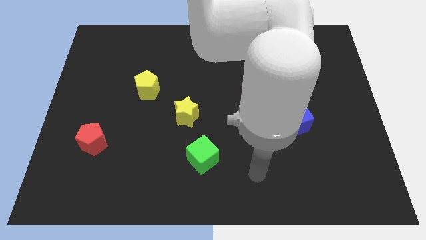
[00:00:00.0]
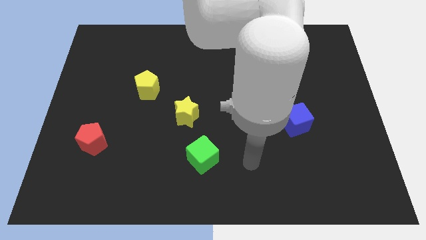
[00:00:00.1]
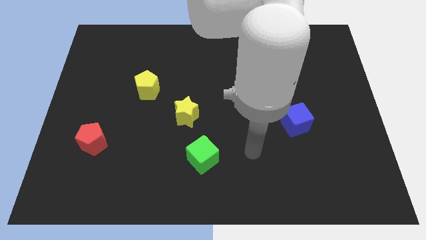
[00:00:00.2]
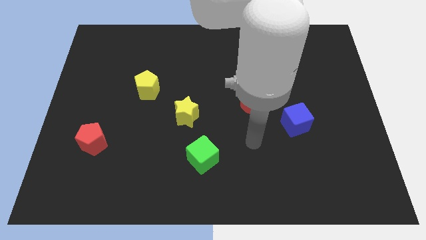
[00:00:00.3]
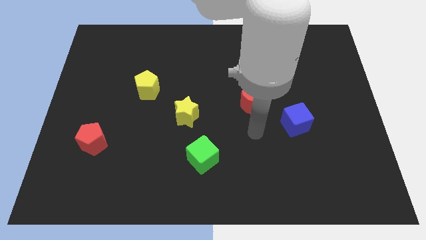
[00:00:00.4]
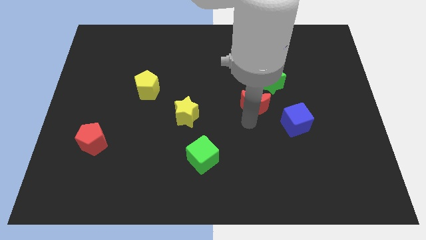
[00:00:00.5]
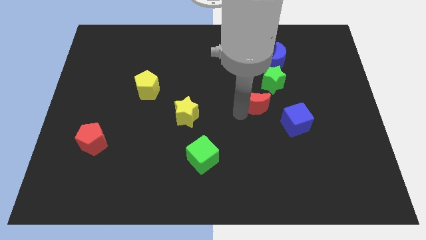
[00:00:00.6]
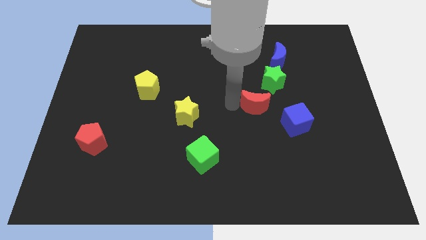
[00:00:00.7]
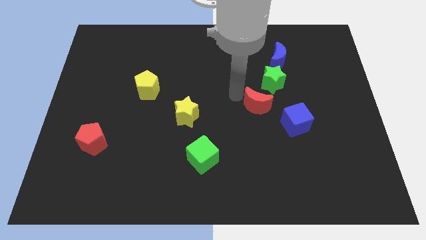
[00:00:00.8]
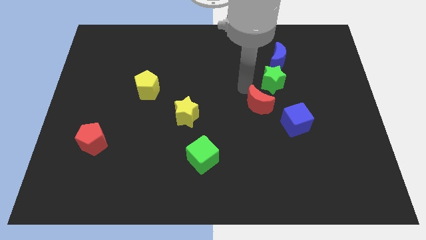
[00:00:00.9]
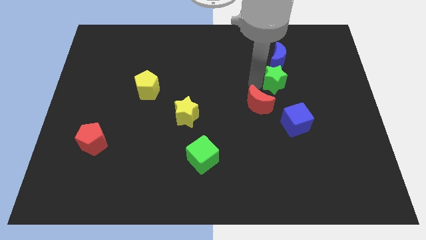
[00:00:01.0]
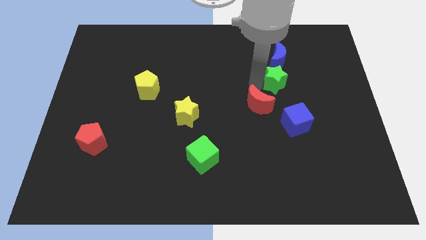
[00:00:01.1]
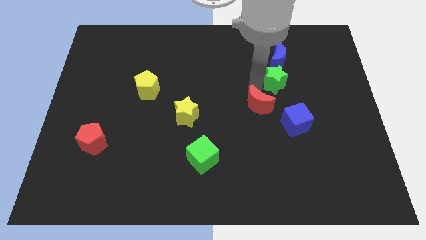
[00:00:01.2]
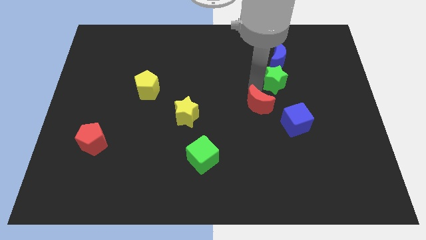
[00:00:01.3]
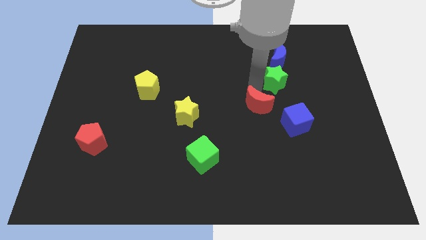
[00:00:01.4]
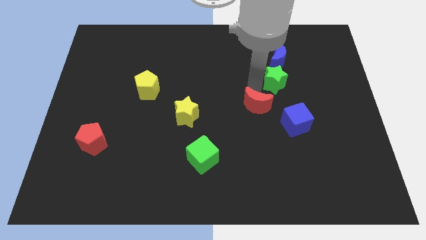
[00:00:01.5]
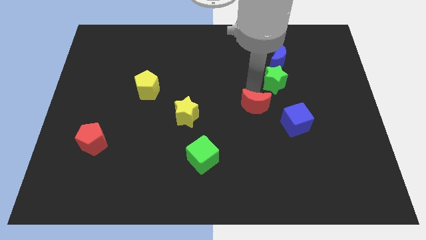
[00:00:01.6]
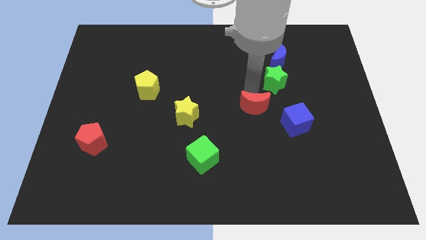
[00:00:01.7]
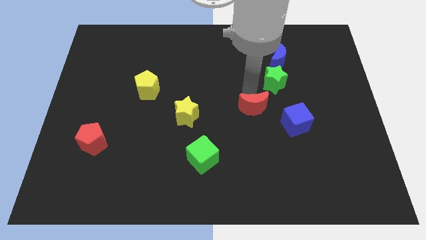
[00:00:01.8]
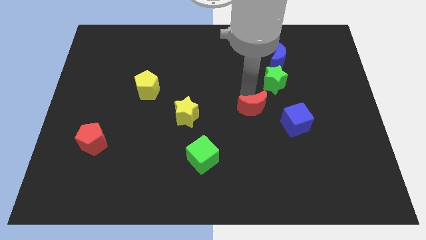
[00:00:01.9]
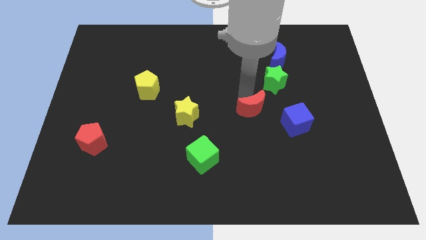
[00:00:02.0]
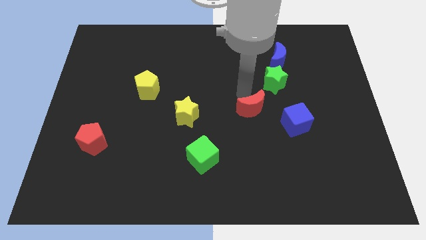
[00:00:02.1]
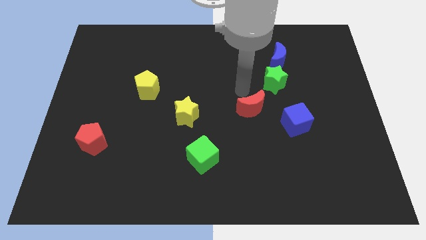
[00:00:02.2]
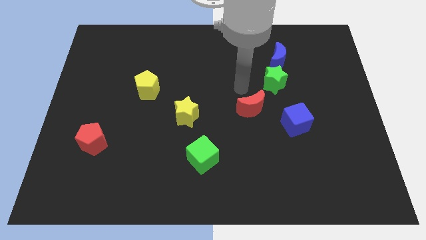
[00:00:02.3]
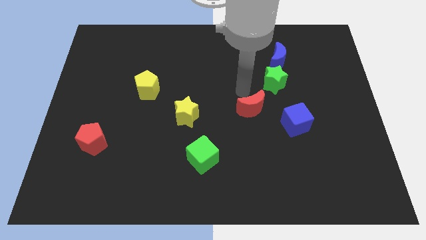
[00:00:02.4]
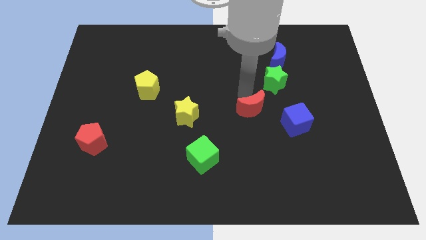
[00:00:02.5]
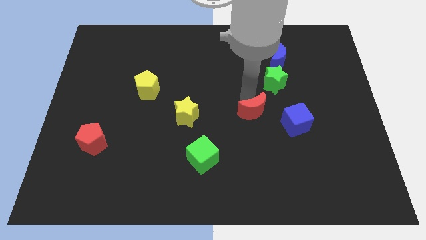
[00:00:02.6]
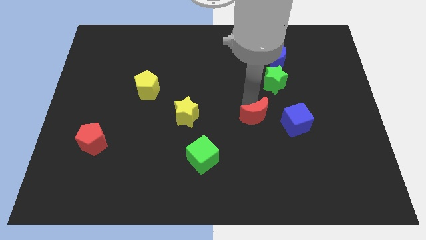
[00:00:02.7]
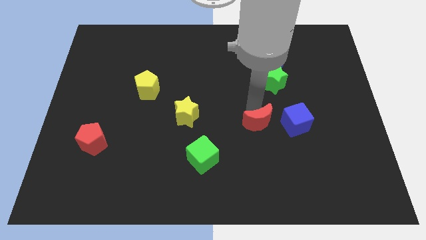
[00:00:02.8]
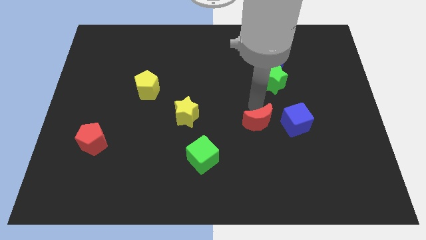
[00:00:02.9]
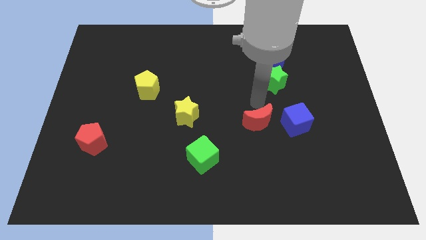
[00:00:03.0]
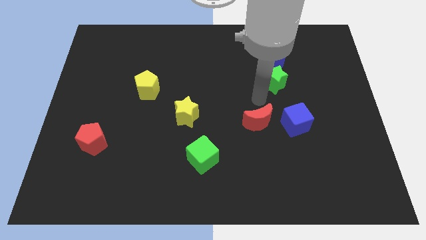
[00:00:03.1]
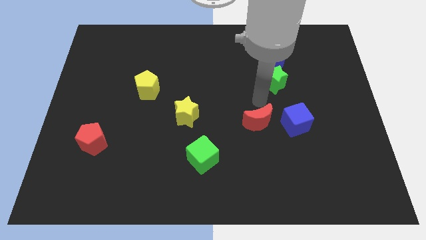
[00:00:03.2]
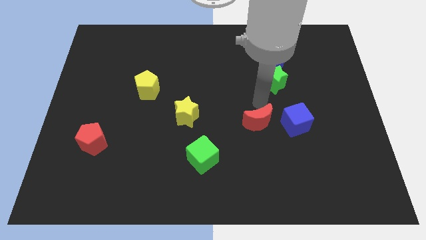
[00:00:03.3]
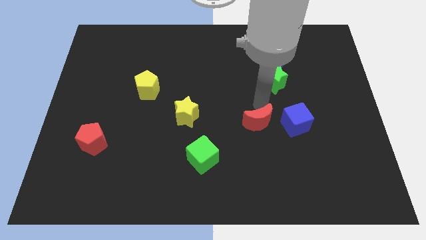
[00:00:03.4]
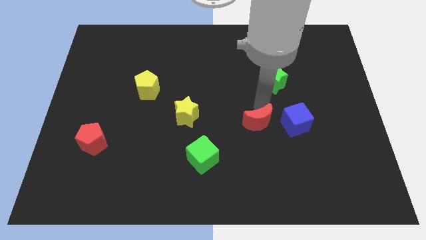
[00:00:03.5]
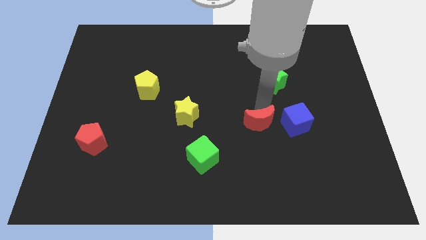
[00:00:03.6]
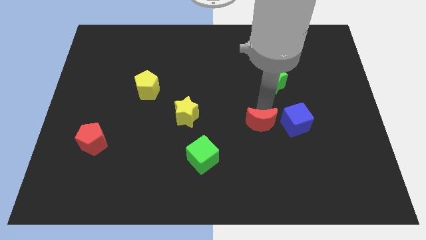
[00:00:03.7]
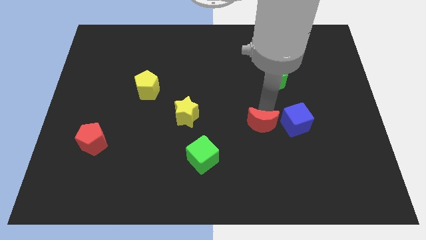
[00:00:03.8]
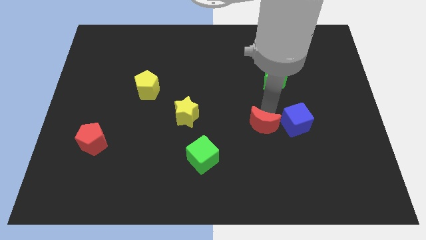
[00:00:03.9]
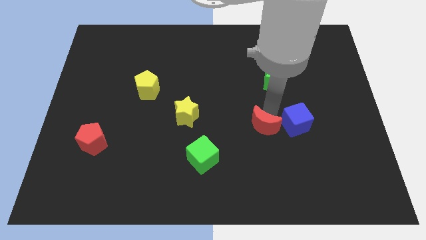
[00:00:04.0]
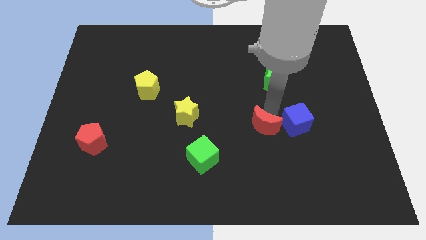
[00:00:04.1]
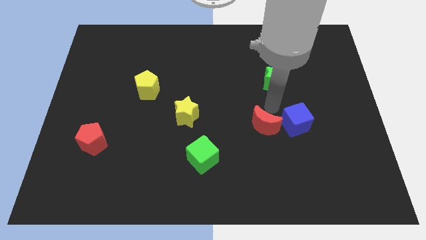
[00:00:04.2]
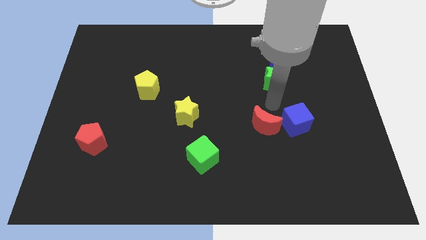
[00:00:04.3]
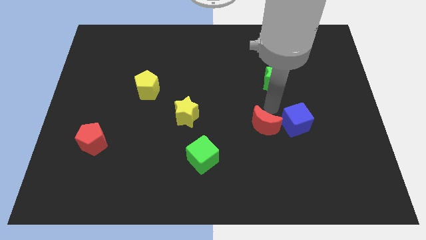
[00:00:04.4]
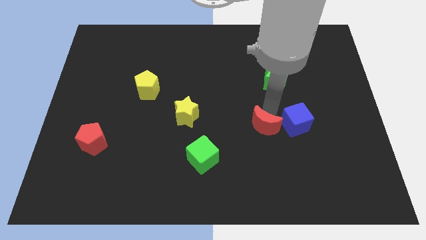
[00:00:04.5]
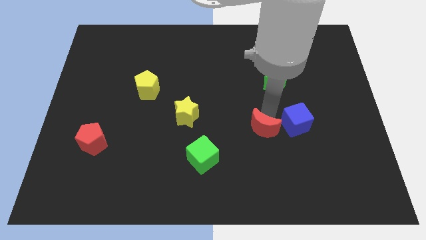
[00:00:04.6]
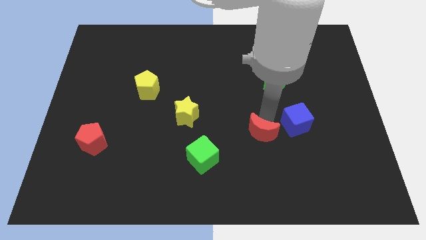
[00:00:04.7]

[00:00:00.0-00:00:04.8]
slightly slide the red moon downwards

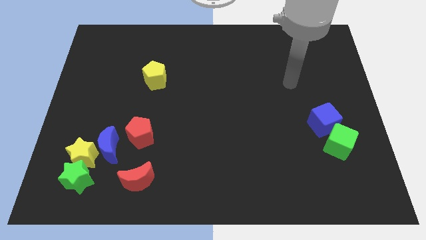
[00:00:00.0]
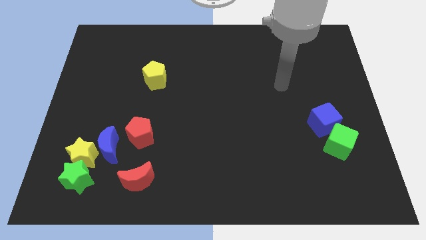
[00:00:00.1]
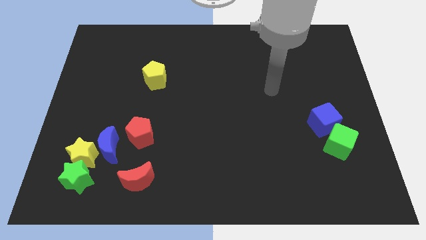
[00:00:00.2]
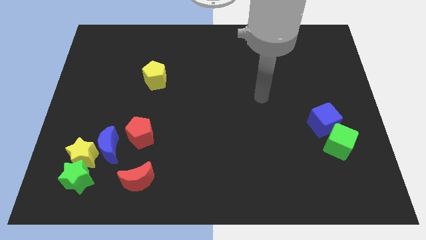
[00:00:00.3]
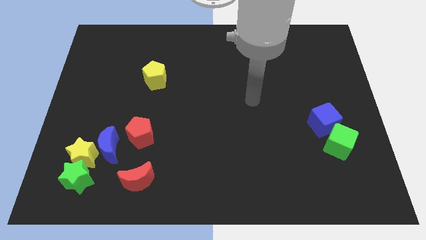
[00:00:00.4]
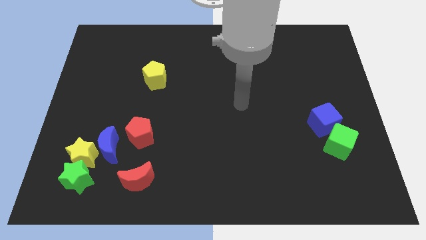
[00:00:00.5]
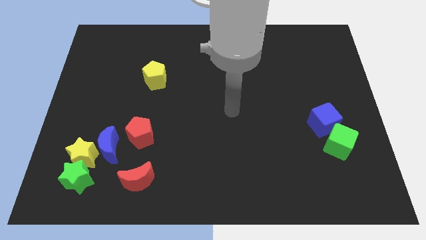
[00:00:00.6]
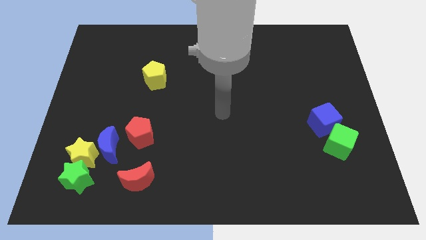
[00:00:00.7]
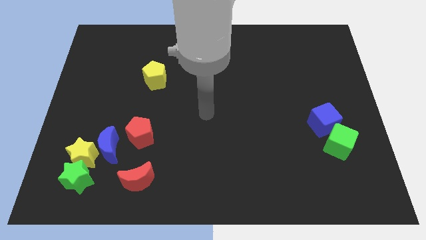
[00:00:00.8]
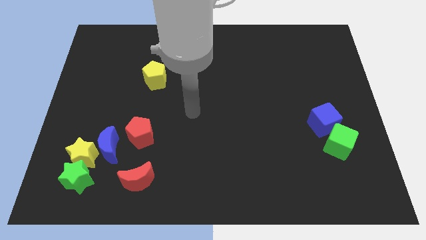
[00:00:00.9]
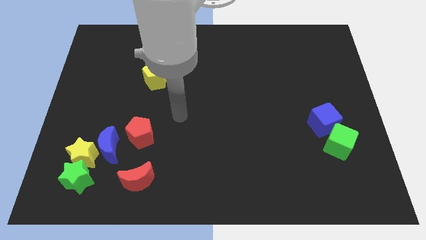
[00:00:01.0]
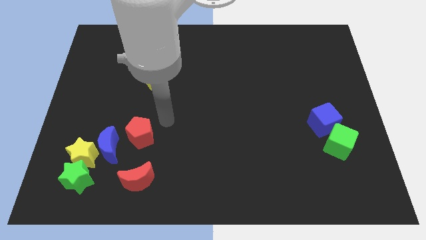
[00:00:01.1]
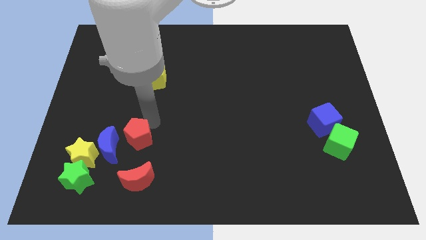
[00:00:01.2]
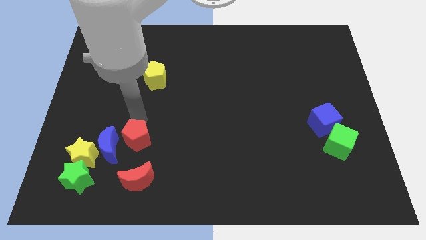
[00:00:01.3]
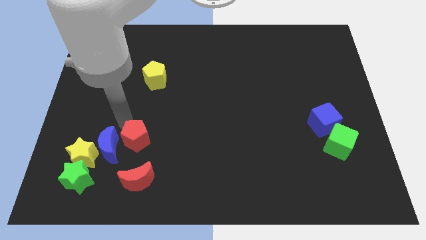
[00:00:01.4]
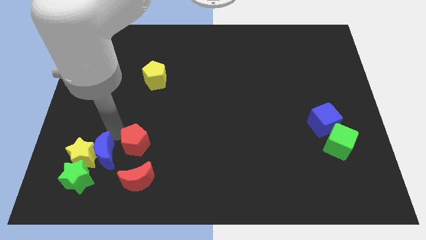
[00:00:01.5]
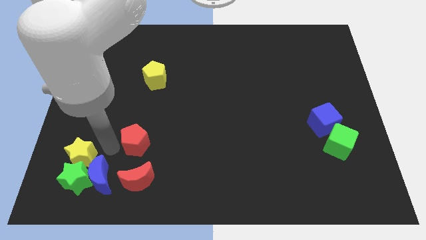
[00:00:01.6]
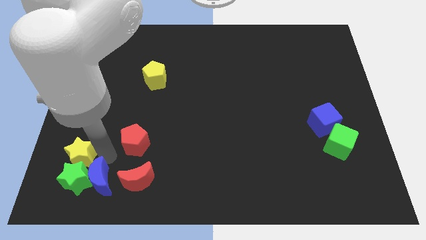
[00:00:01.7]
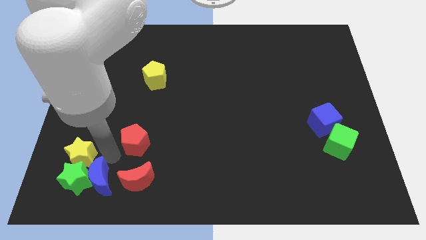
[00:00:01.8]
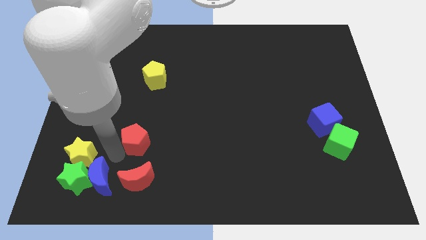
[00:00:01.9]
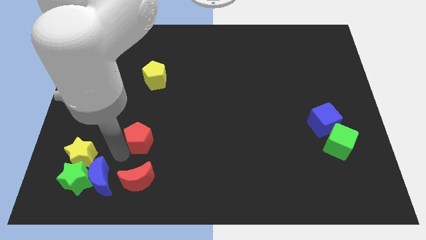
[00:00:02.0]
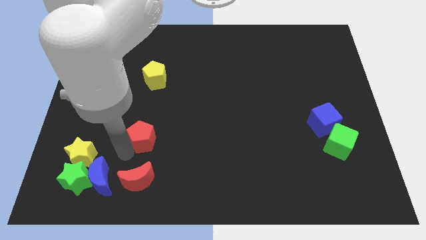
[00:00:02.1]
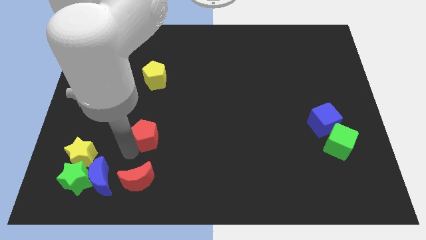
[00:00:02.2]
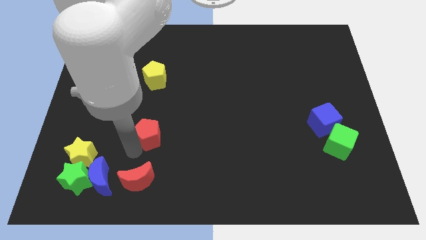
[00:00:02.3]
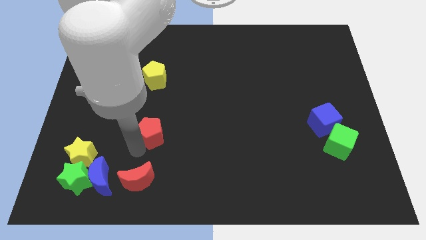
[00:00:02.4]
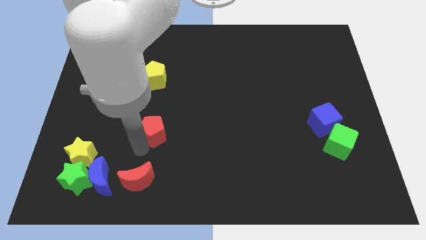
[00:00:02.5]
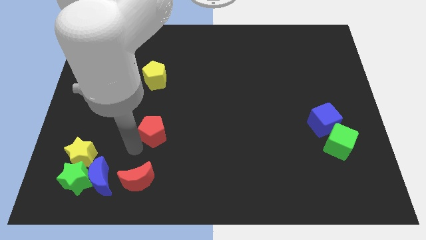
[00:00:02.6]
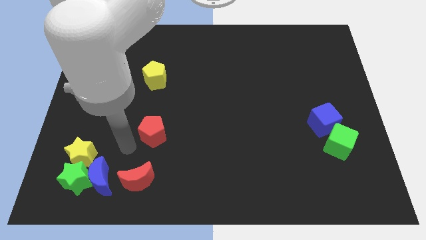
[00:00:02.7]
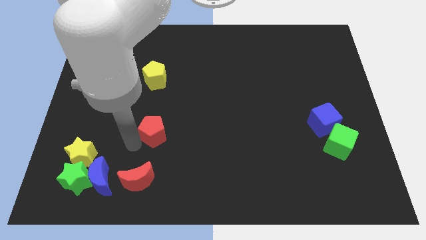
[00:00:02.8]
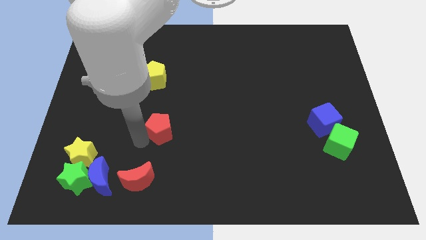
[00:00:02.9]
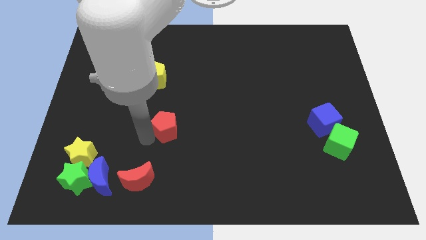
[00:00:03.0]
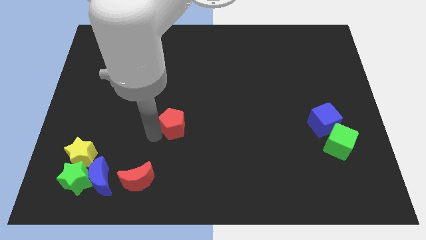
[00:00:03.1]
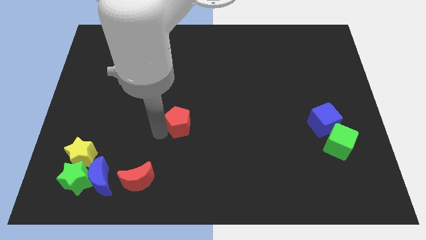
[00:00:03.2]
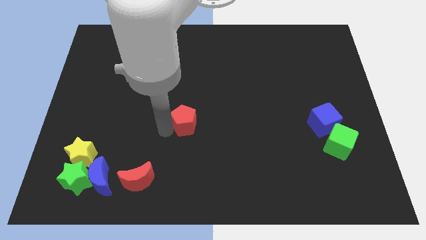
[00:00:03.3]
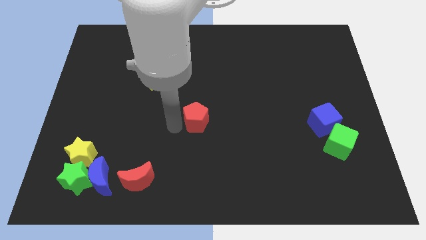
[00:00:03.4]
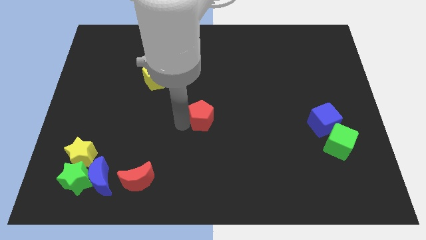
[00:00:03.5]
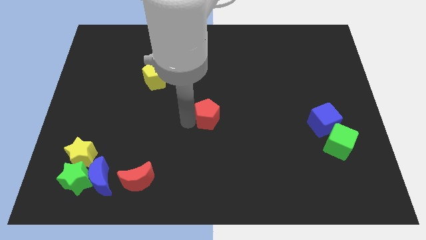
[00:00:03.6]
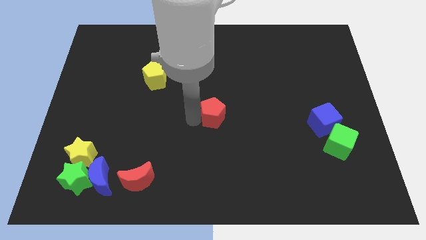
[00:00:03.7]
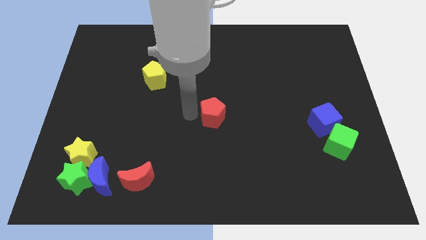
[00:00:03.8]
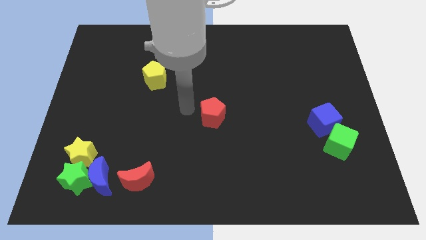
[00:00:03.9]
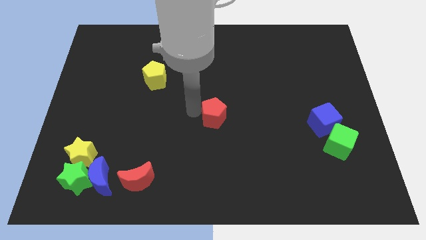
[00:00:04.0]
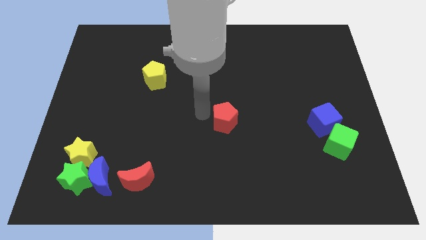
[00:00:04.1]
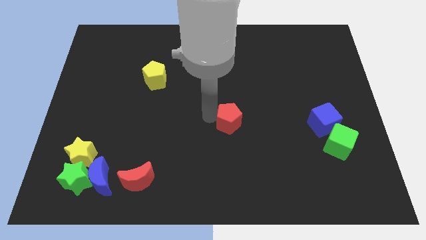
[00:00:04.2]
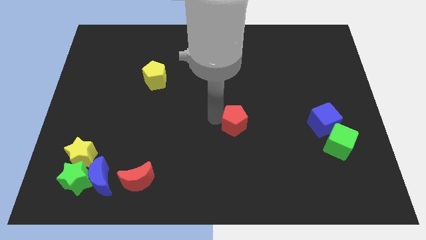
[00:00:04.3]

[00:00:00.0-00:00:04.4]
move the red pentagon right
